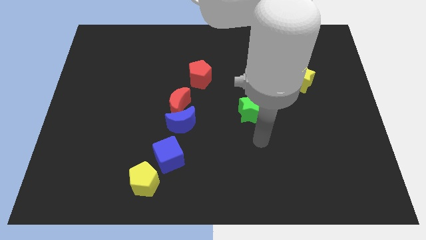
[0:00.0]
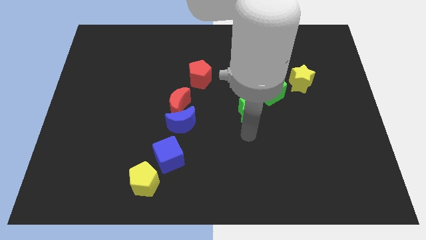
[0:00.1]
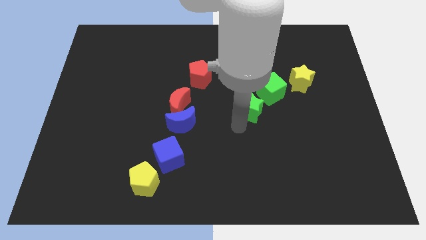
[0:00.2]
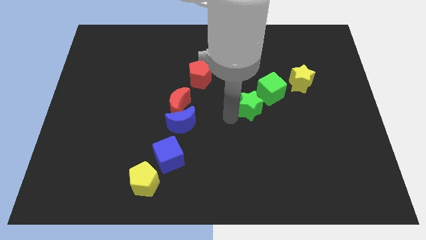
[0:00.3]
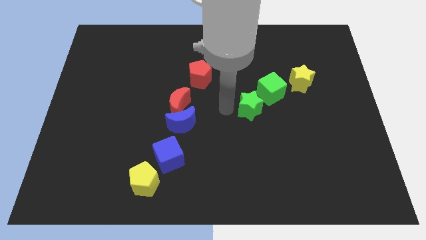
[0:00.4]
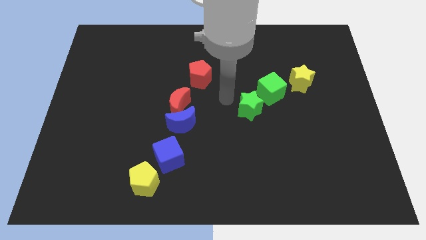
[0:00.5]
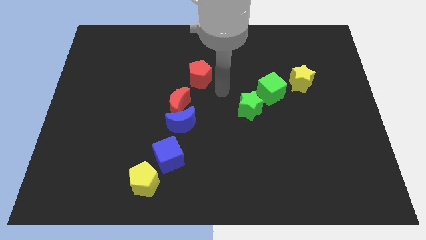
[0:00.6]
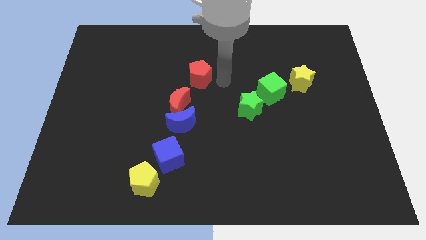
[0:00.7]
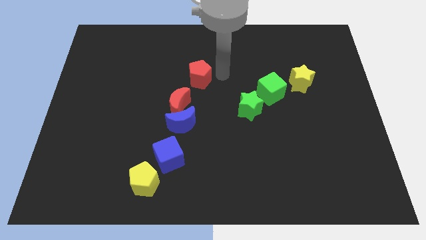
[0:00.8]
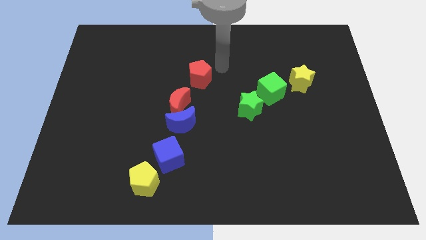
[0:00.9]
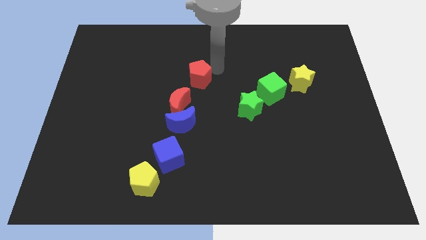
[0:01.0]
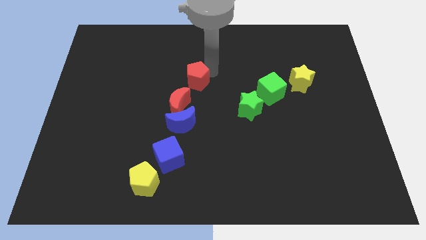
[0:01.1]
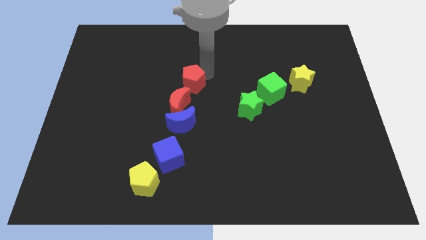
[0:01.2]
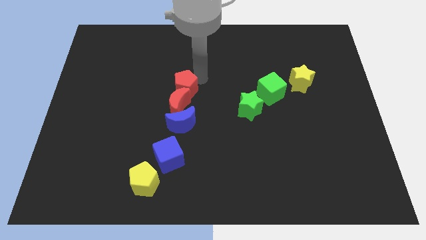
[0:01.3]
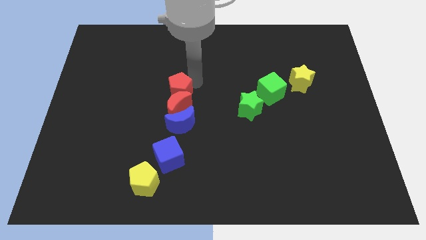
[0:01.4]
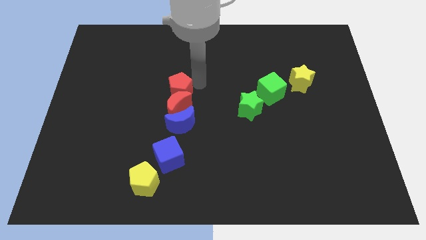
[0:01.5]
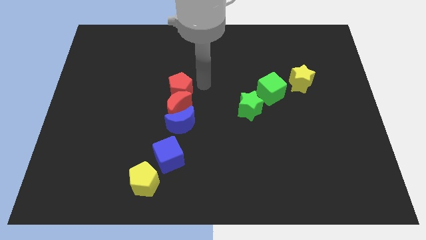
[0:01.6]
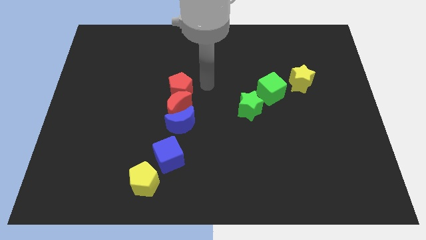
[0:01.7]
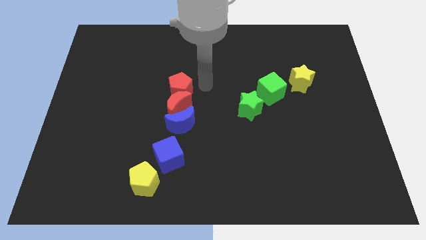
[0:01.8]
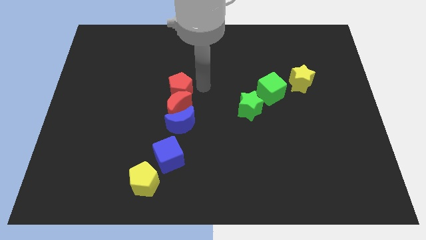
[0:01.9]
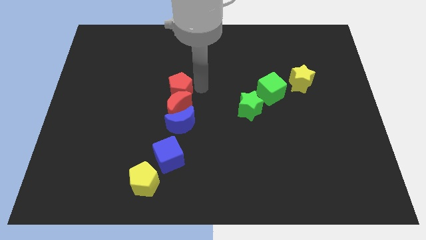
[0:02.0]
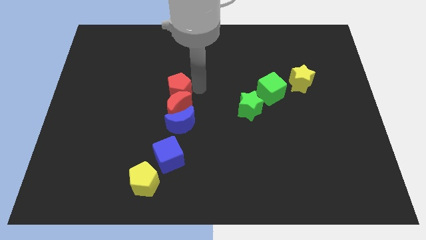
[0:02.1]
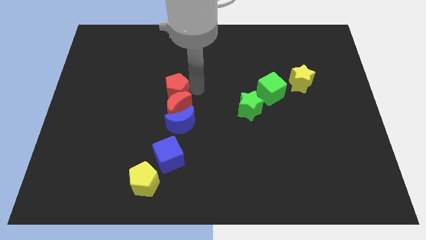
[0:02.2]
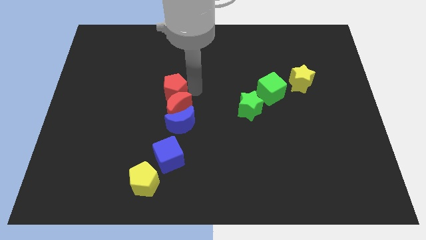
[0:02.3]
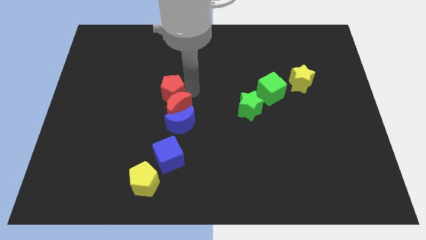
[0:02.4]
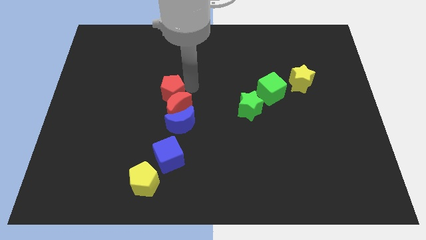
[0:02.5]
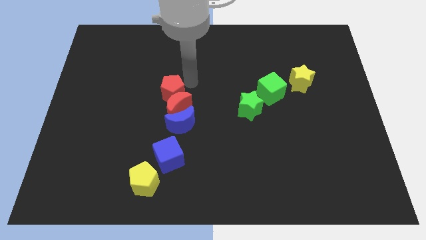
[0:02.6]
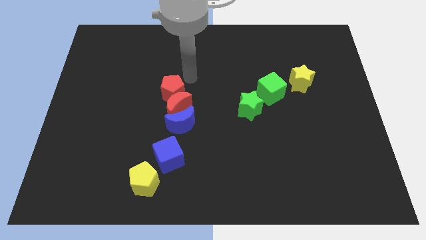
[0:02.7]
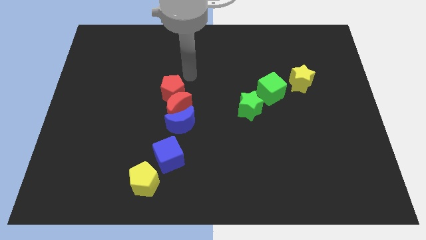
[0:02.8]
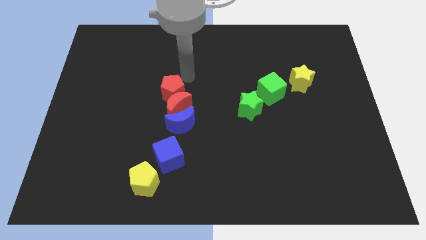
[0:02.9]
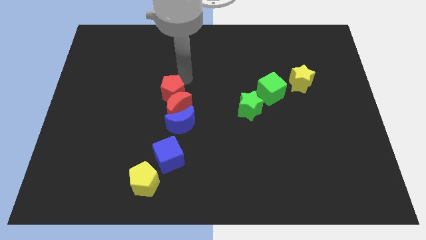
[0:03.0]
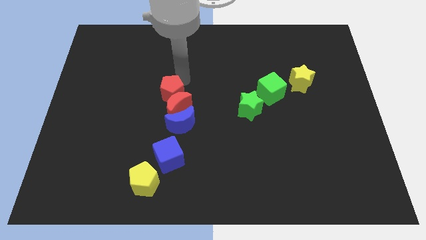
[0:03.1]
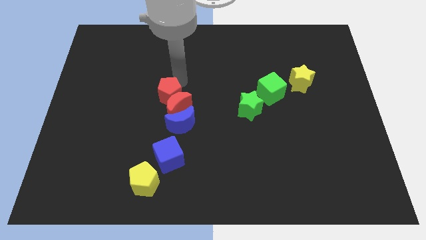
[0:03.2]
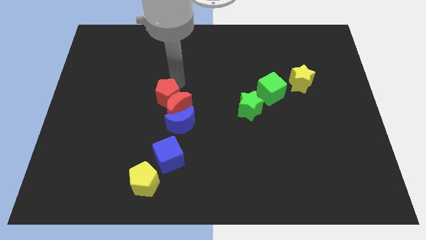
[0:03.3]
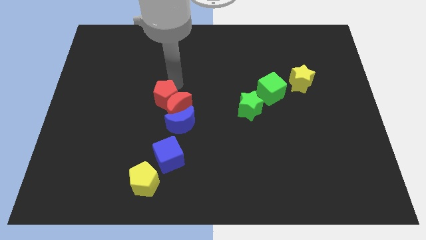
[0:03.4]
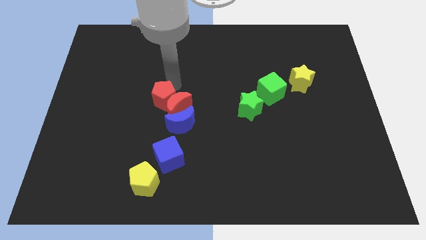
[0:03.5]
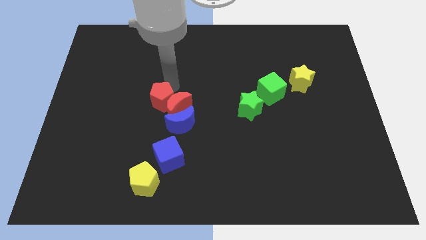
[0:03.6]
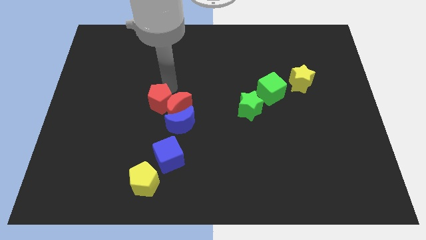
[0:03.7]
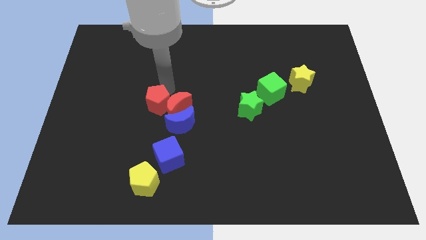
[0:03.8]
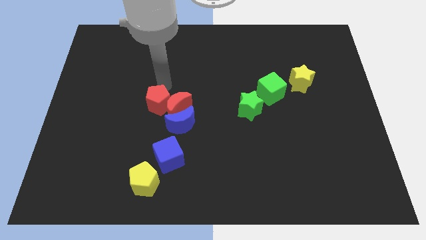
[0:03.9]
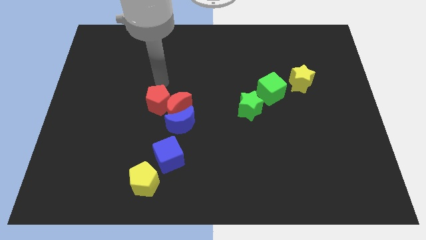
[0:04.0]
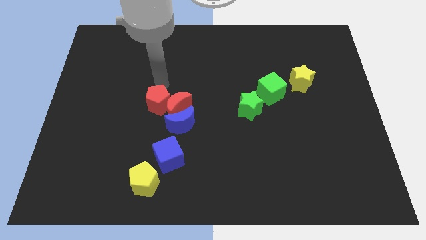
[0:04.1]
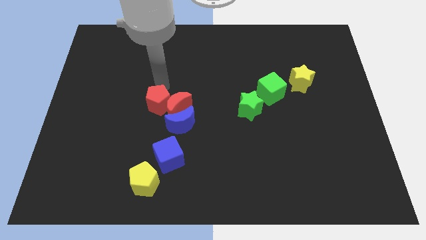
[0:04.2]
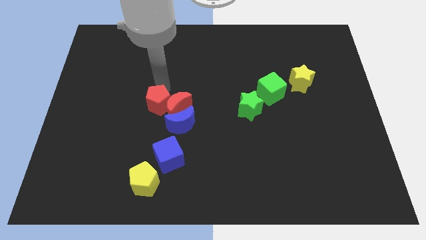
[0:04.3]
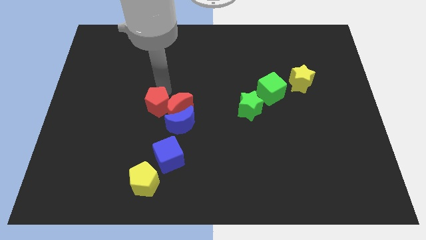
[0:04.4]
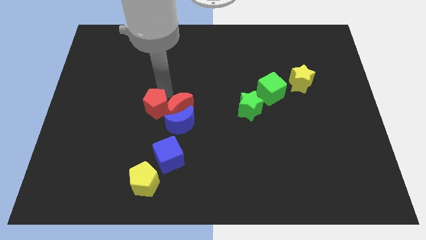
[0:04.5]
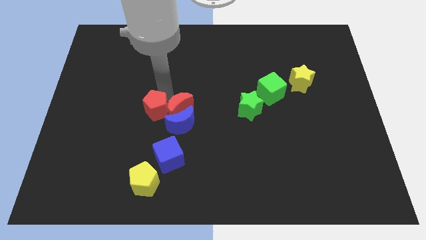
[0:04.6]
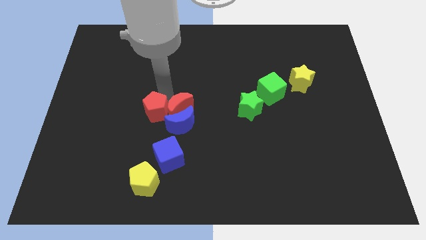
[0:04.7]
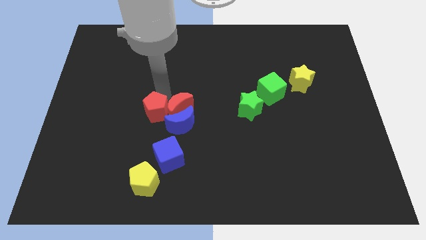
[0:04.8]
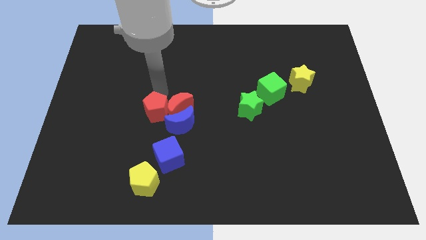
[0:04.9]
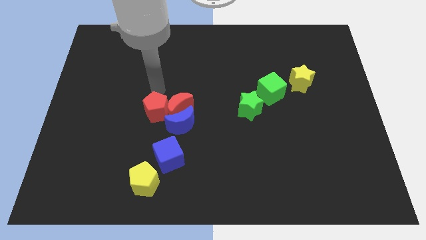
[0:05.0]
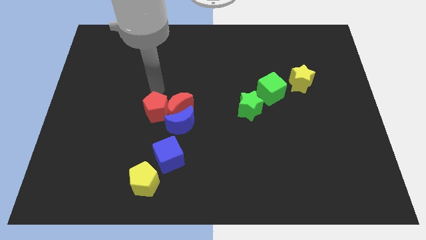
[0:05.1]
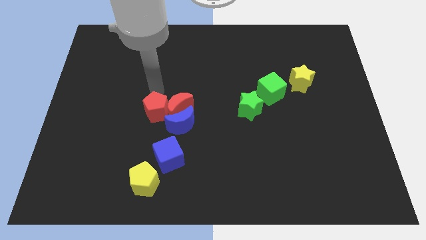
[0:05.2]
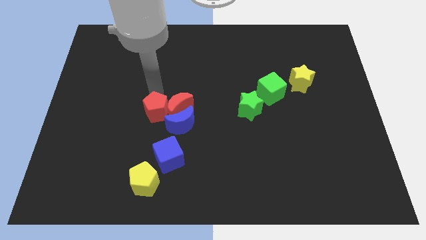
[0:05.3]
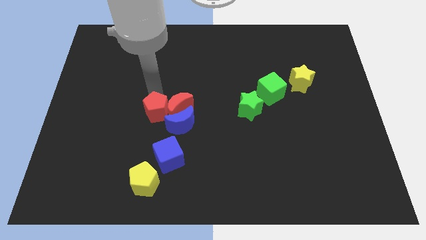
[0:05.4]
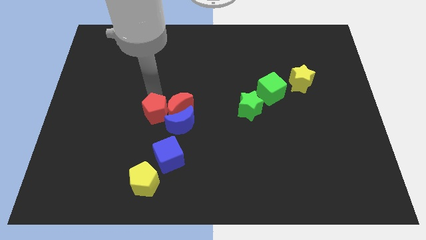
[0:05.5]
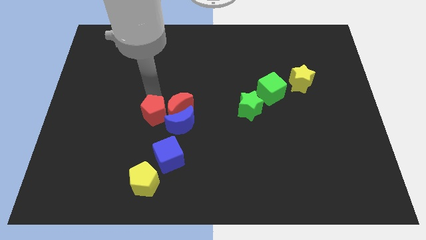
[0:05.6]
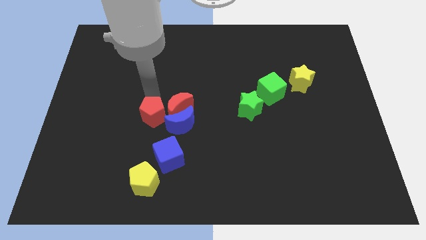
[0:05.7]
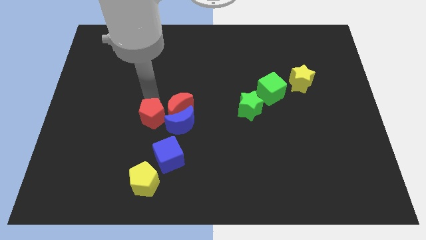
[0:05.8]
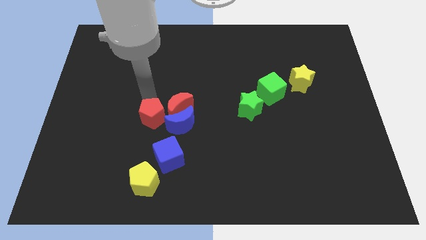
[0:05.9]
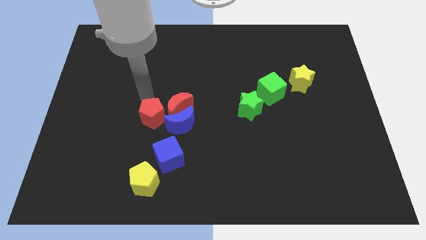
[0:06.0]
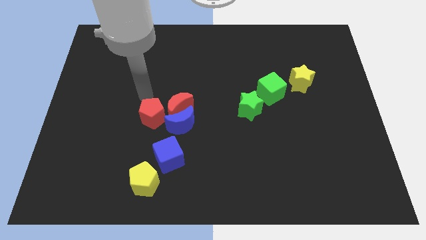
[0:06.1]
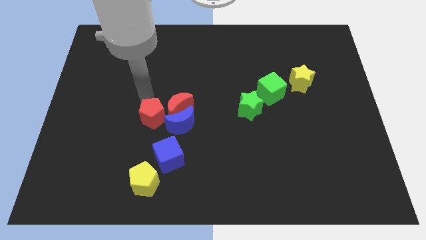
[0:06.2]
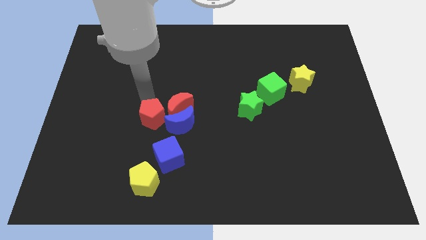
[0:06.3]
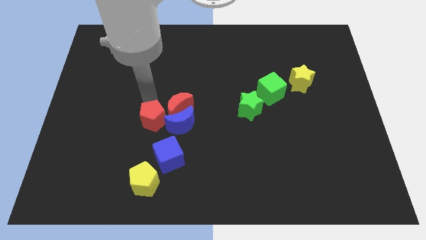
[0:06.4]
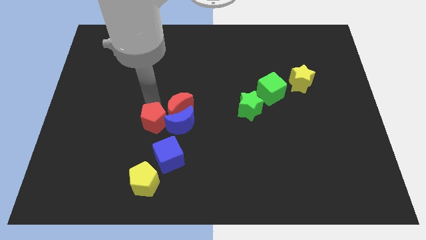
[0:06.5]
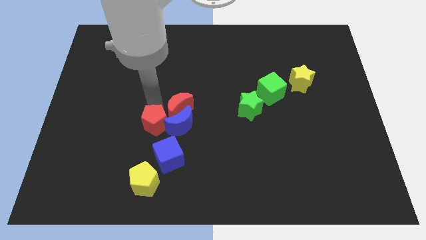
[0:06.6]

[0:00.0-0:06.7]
put the red pentagon diagonally down and to the left of the blue moon
